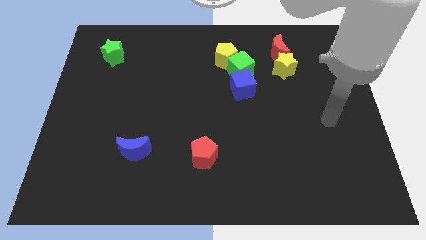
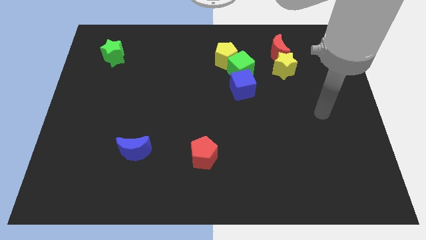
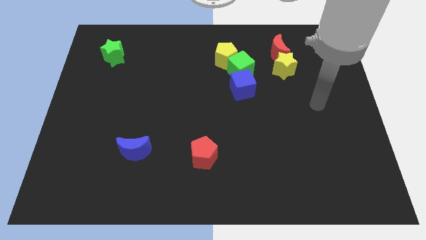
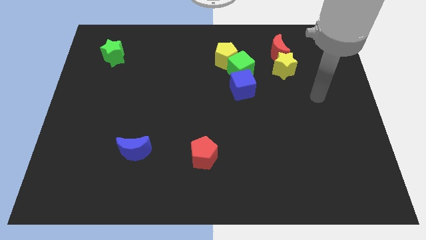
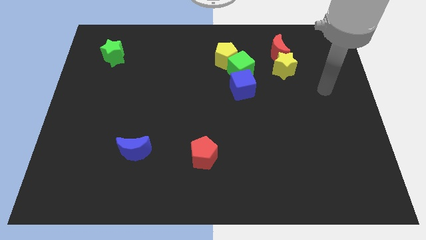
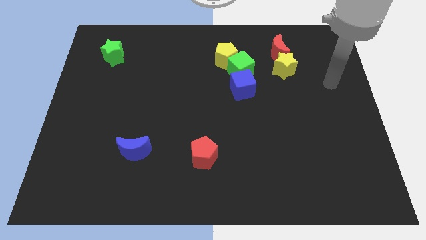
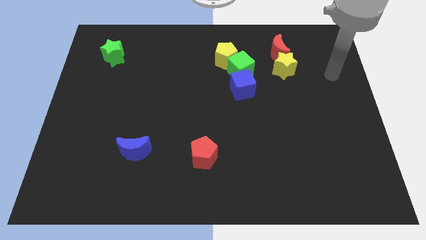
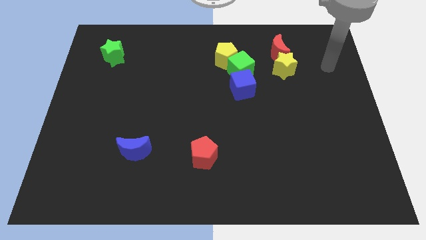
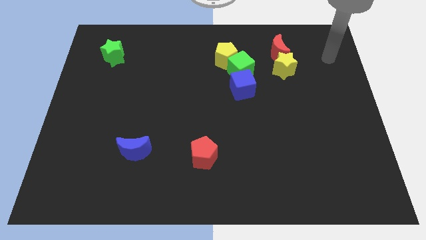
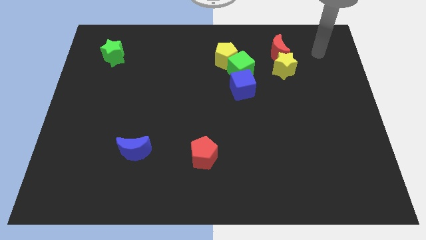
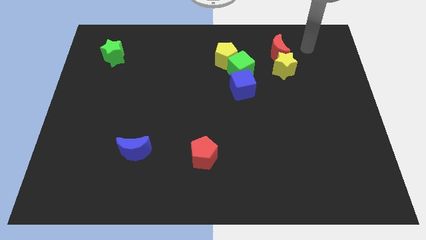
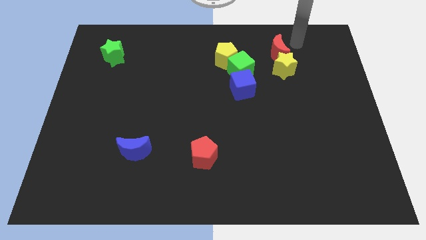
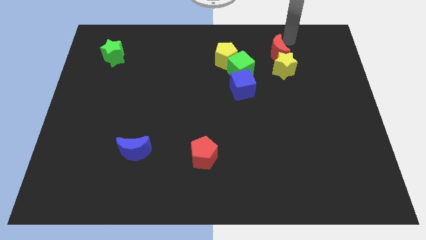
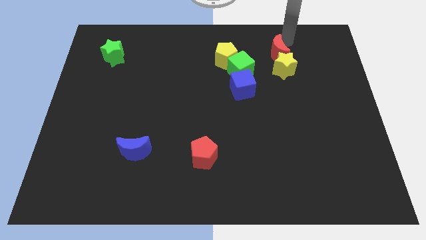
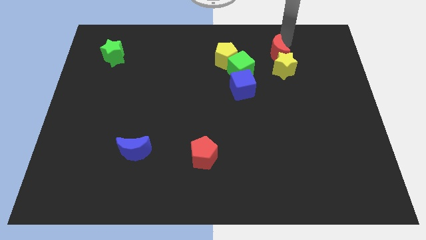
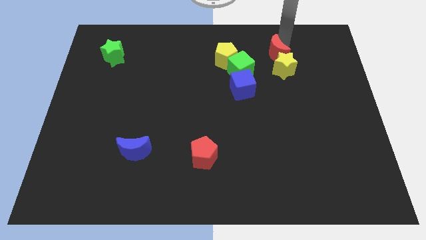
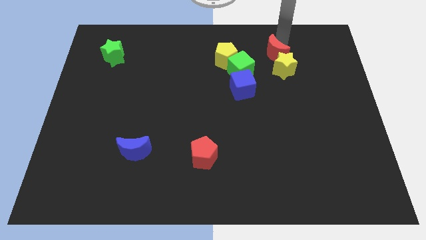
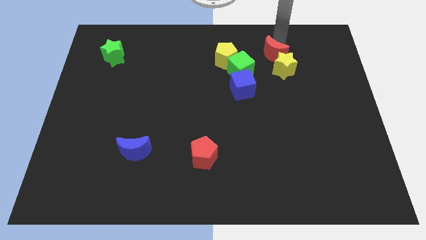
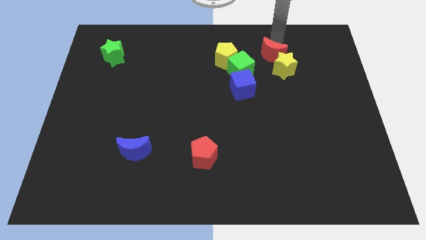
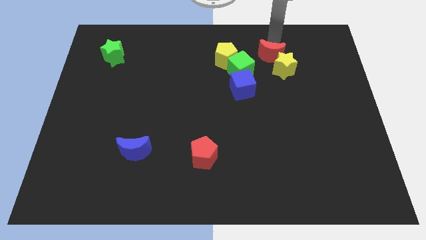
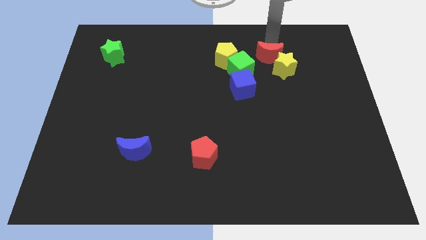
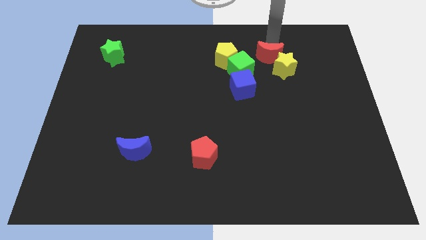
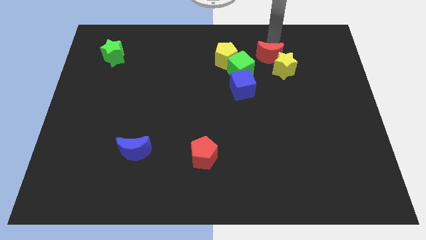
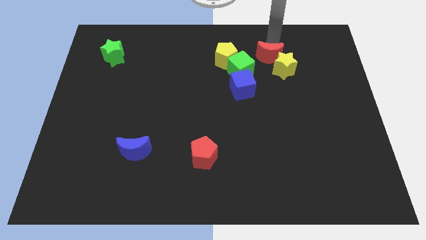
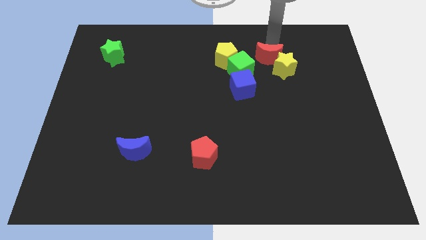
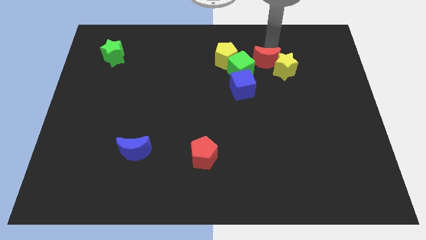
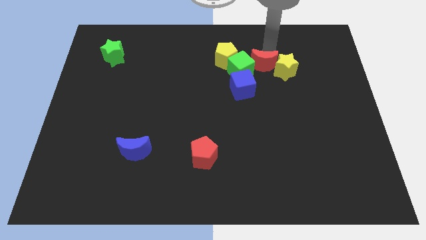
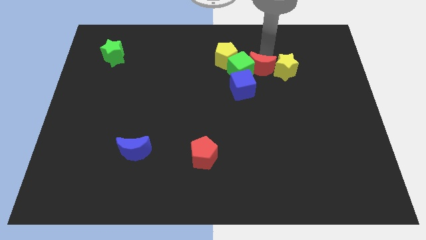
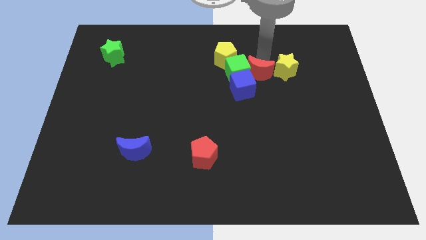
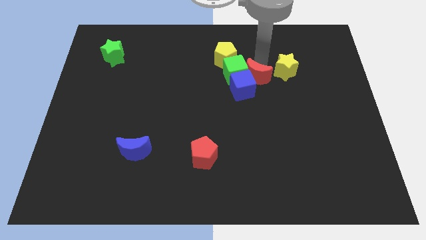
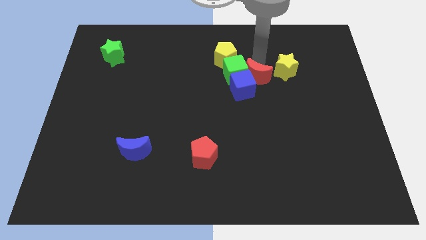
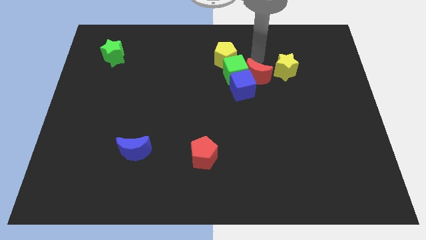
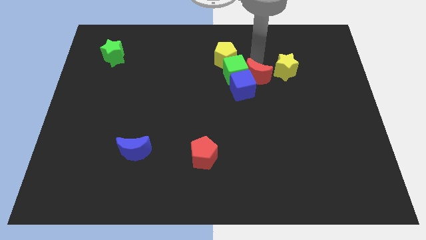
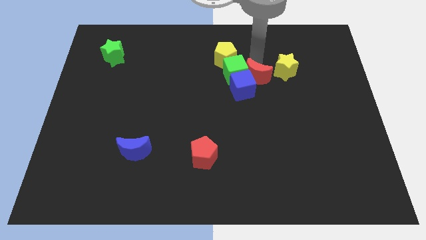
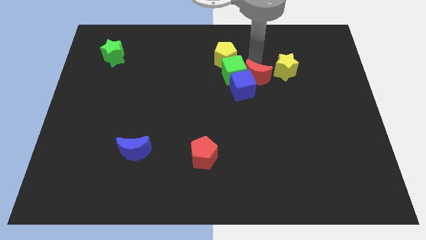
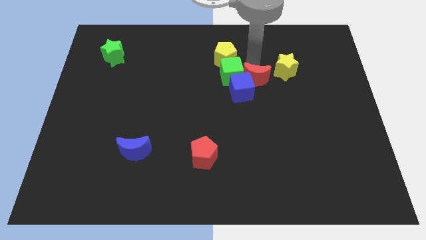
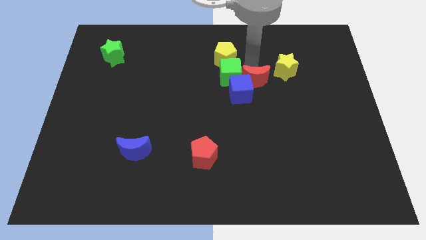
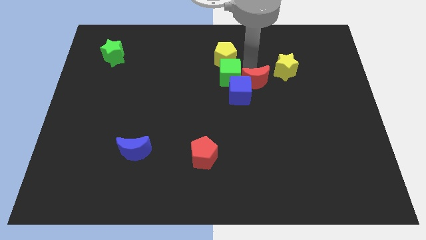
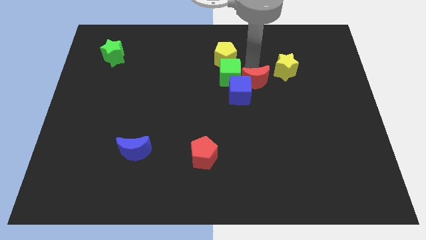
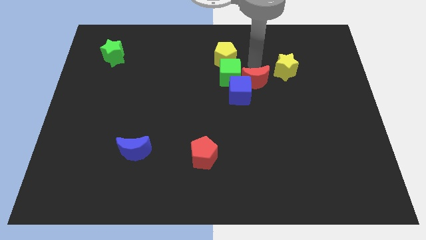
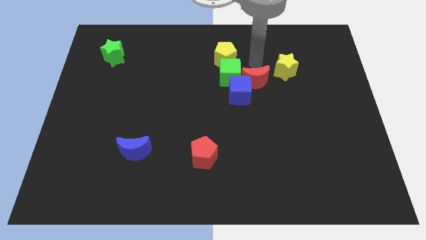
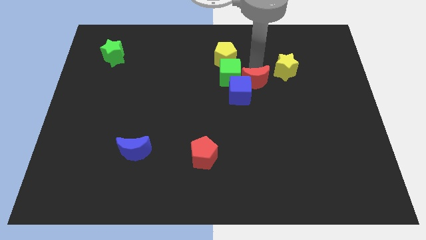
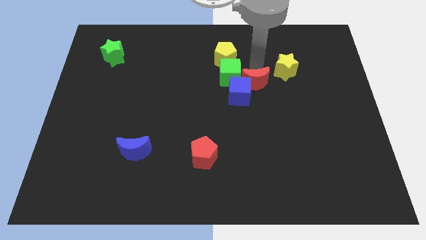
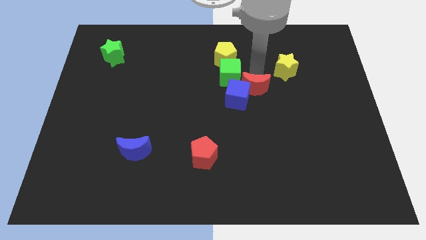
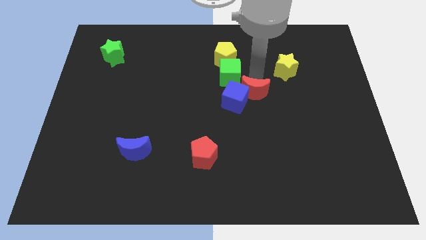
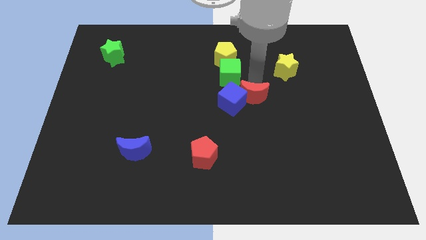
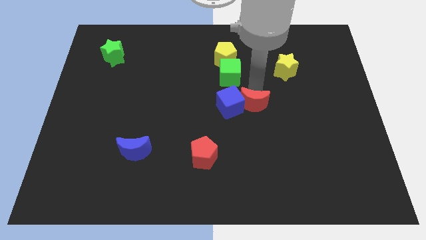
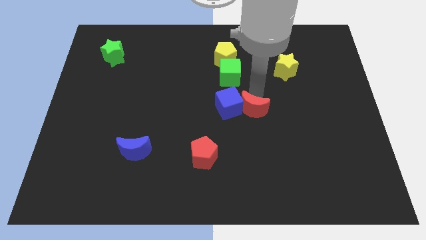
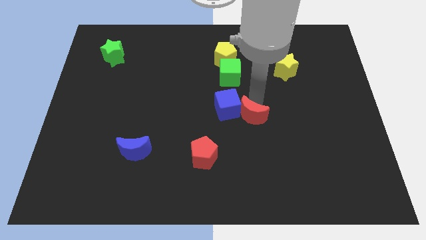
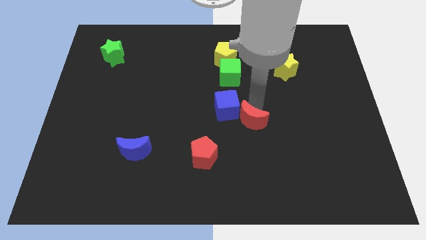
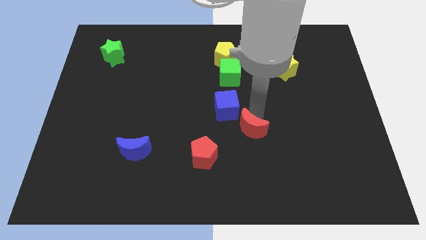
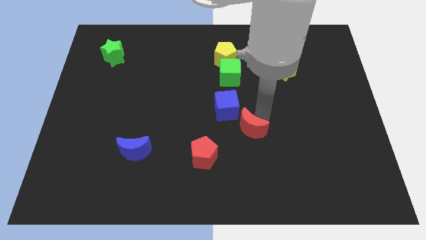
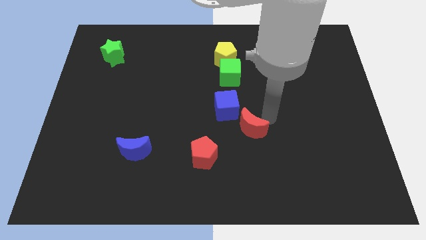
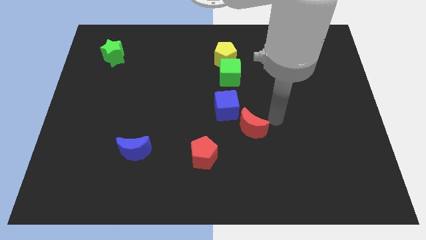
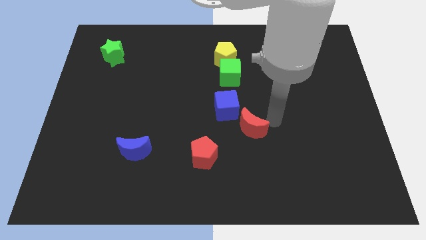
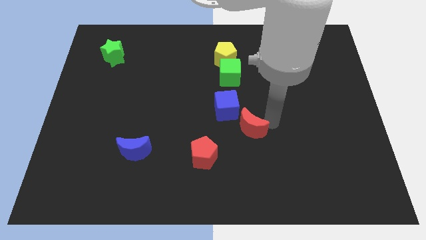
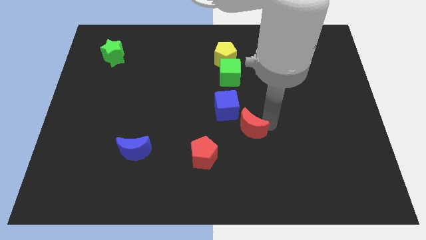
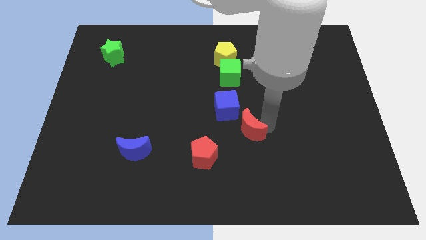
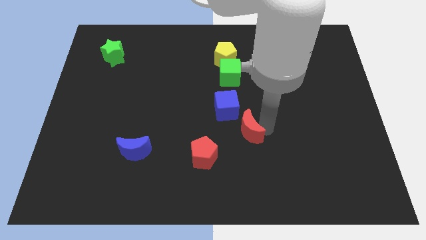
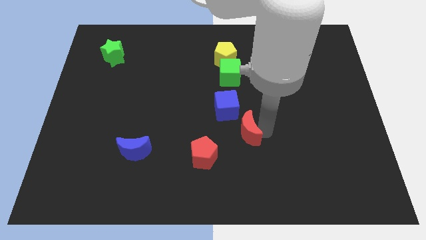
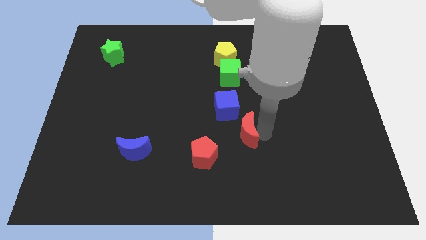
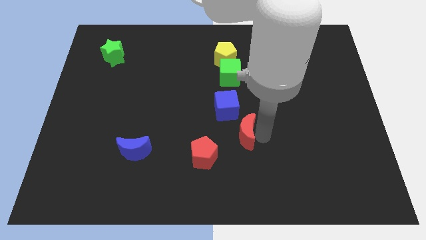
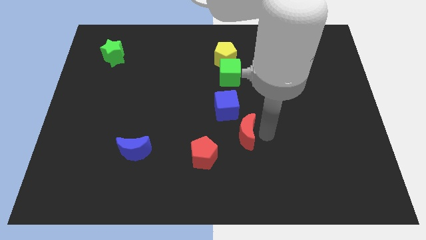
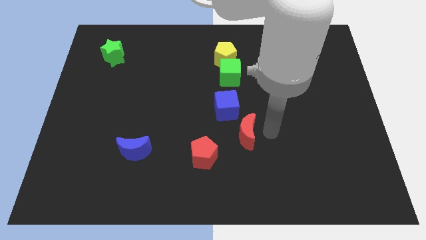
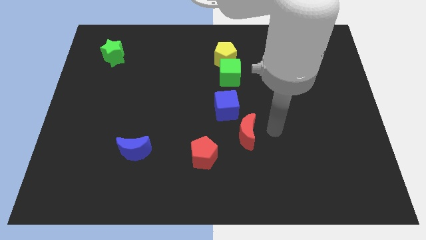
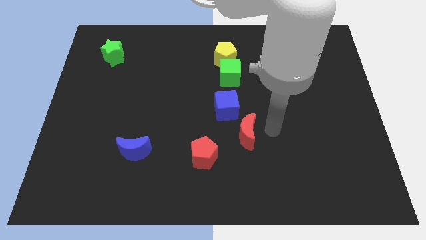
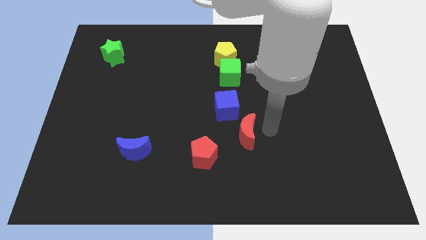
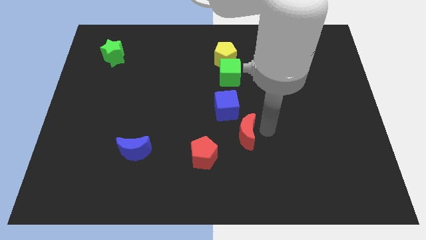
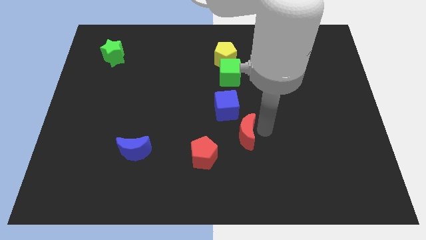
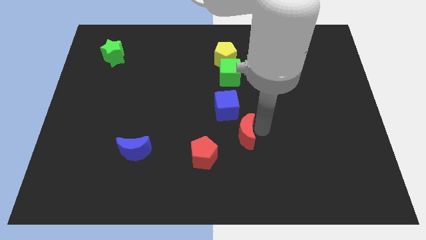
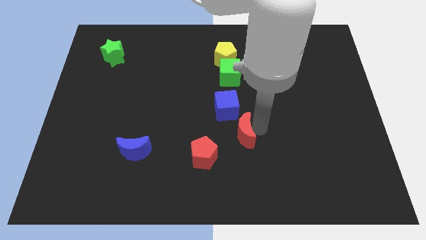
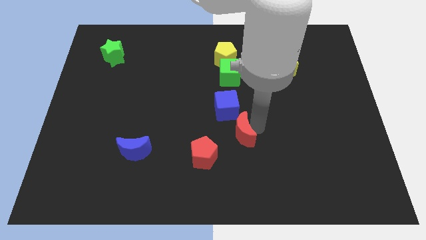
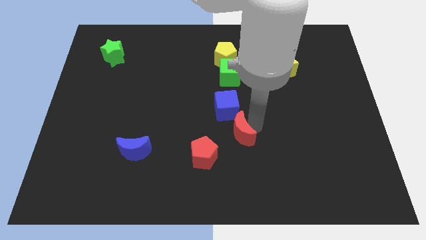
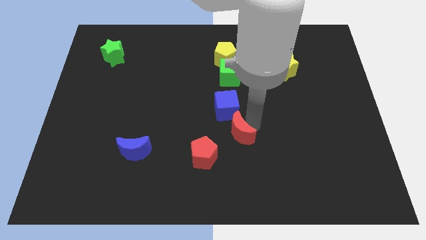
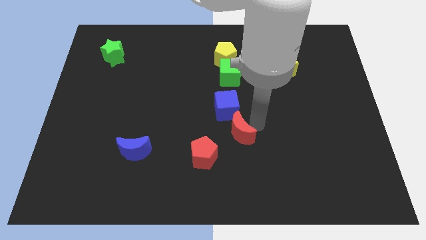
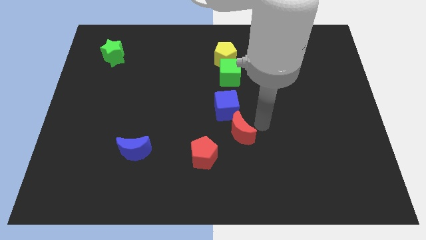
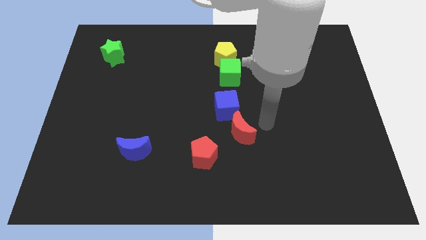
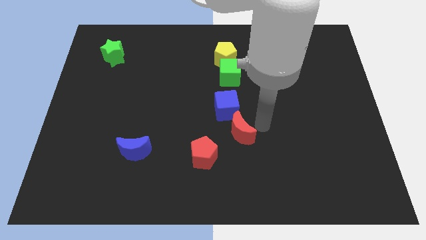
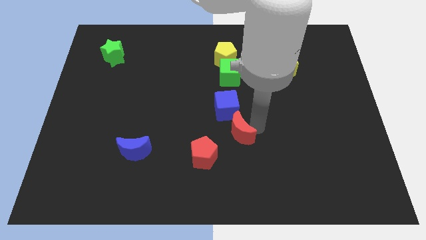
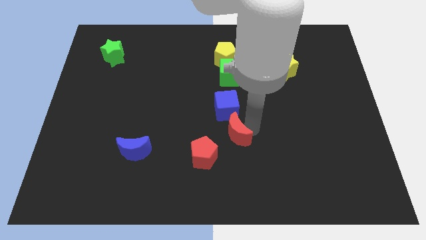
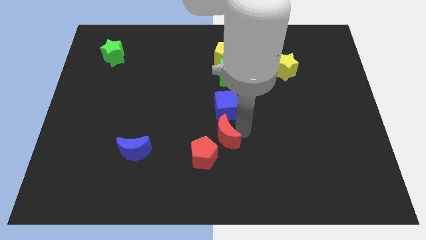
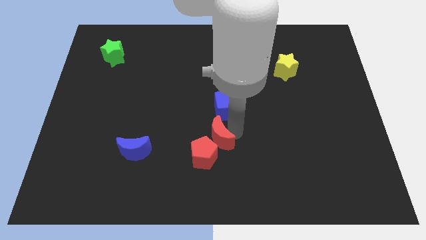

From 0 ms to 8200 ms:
push the red moon towards the red pentagon
